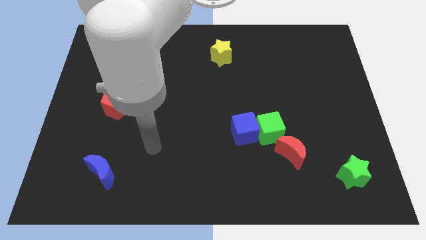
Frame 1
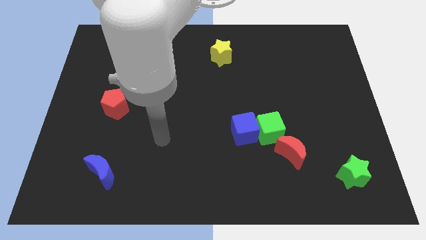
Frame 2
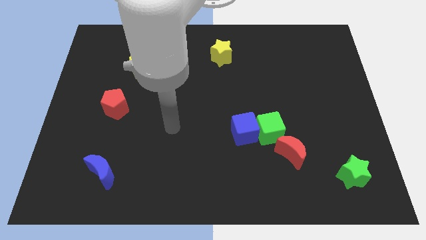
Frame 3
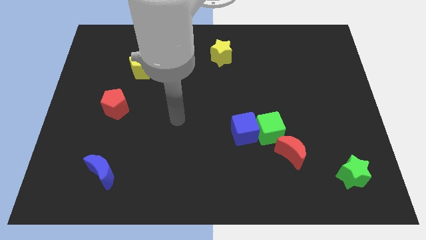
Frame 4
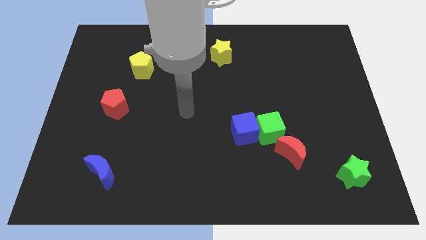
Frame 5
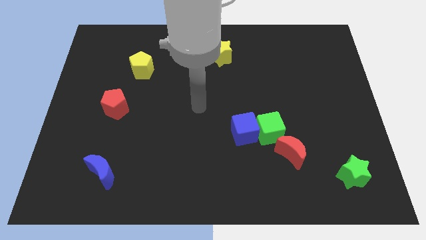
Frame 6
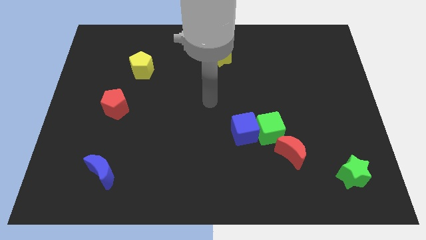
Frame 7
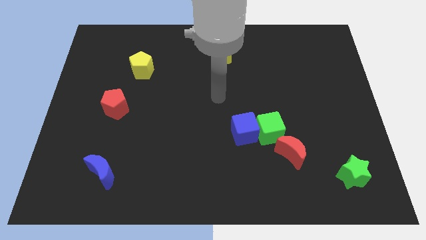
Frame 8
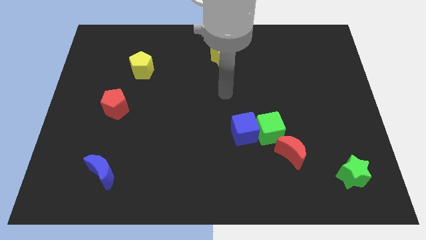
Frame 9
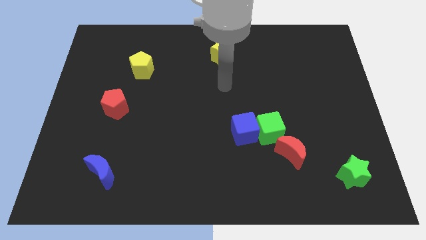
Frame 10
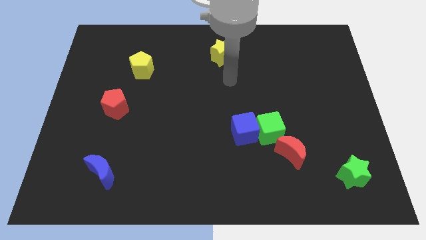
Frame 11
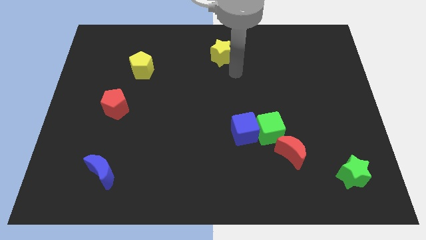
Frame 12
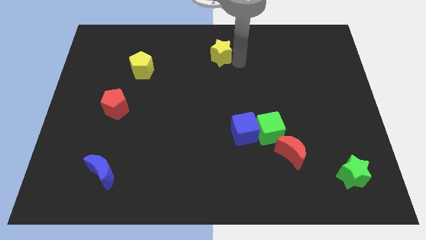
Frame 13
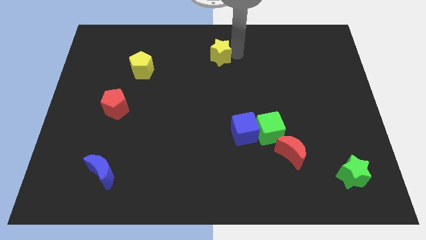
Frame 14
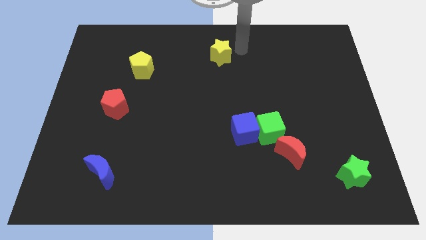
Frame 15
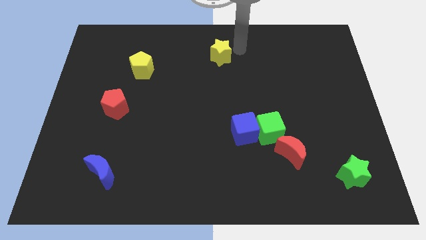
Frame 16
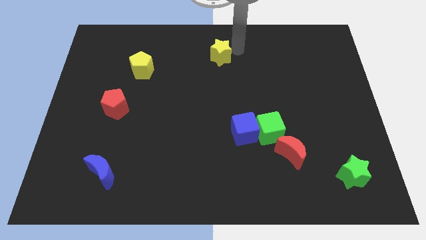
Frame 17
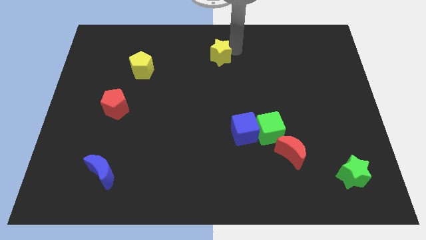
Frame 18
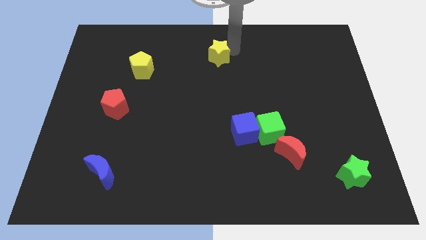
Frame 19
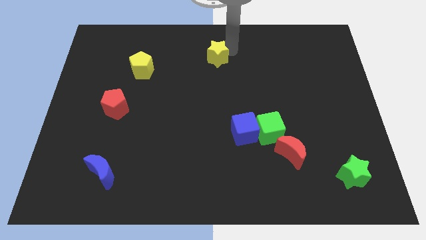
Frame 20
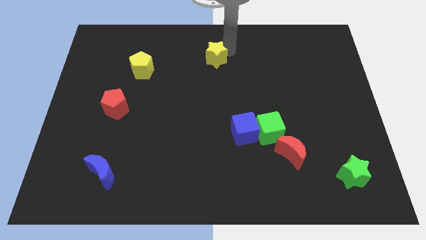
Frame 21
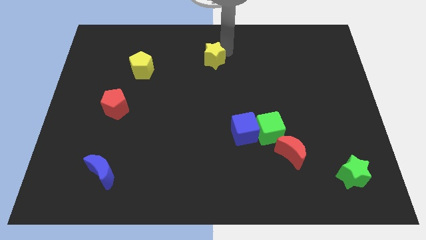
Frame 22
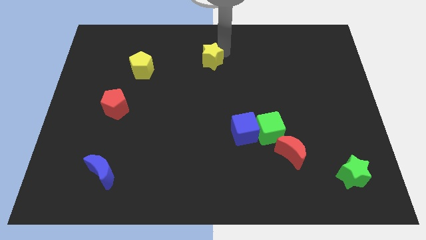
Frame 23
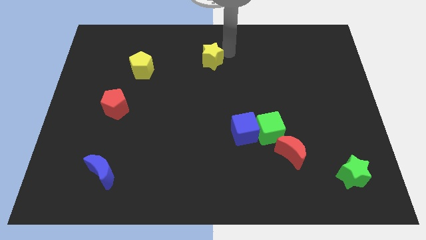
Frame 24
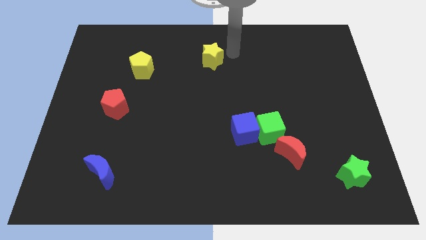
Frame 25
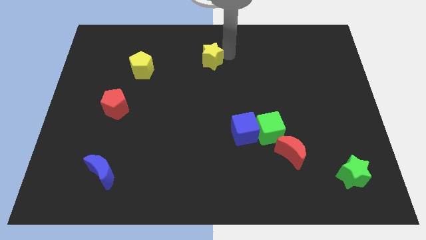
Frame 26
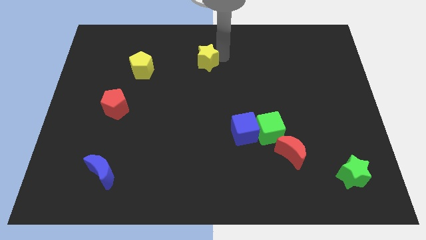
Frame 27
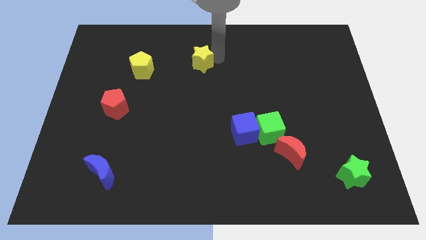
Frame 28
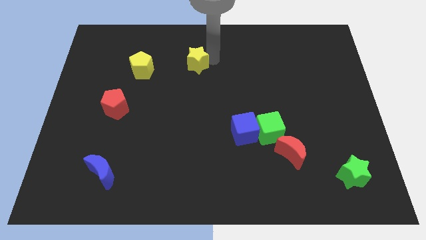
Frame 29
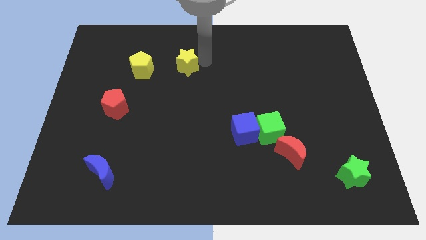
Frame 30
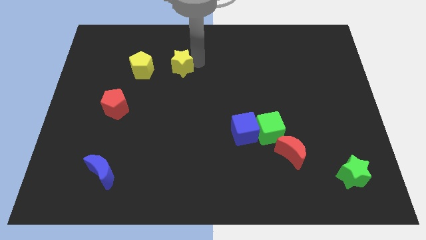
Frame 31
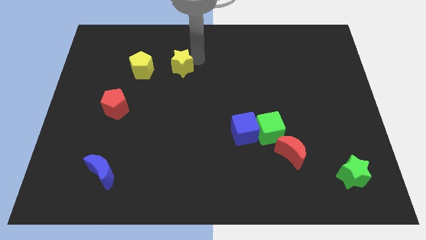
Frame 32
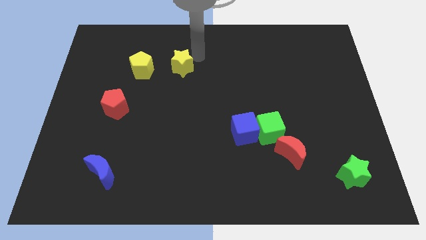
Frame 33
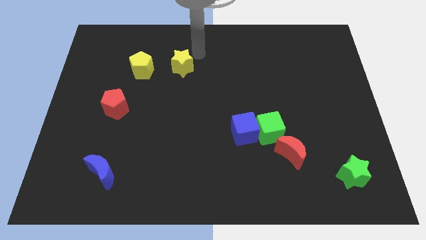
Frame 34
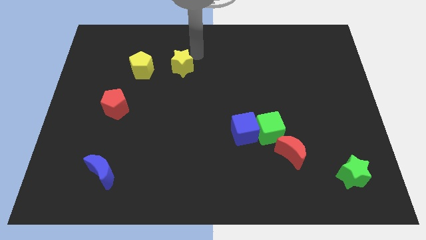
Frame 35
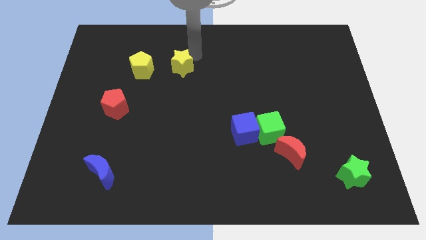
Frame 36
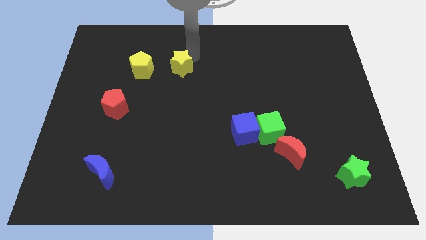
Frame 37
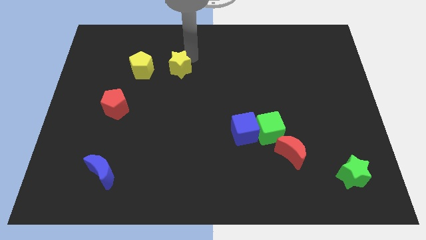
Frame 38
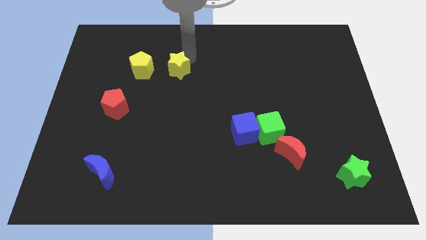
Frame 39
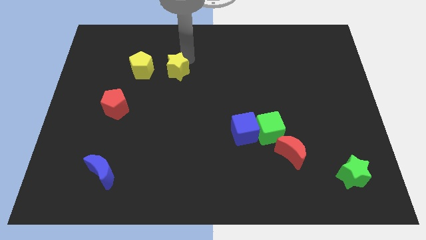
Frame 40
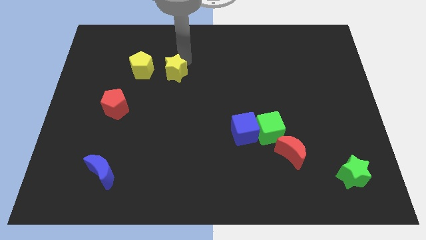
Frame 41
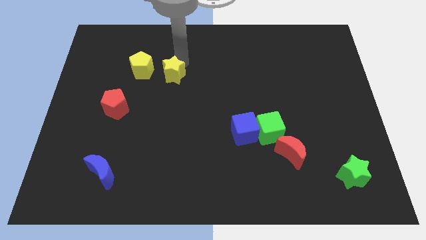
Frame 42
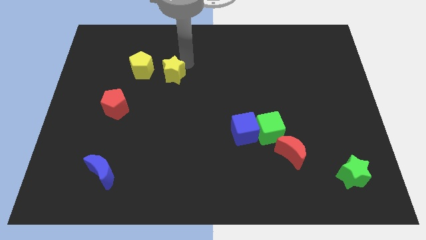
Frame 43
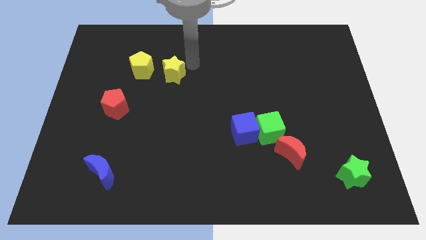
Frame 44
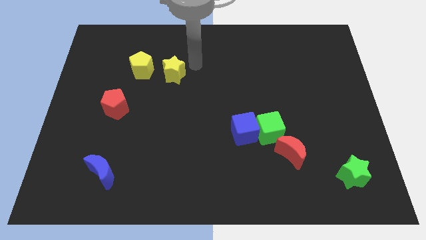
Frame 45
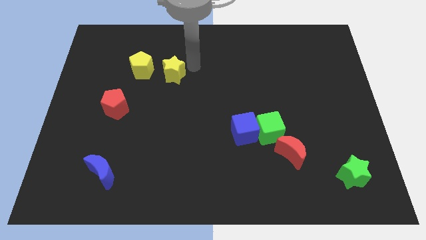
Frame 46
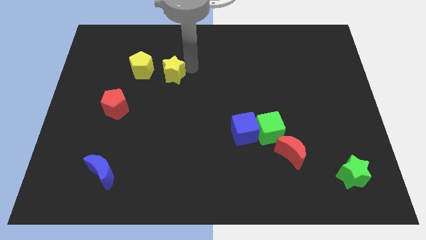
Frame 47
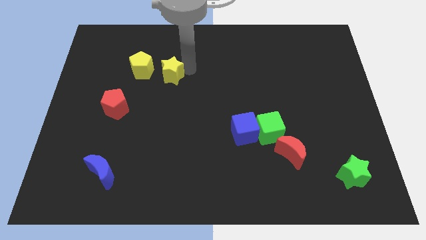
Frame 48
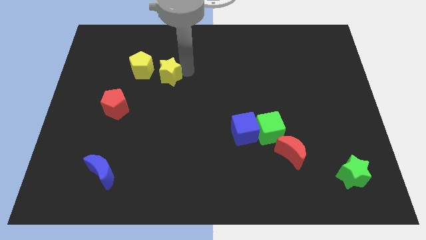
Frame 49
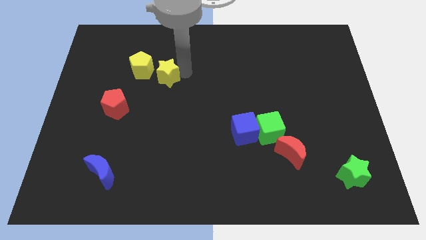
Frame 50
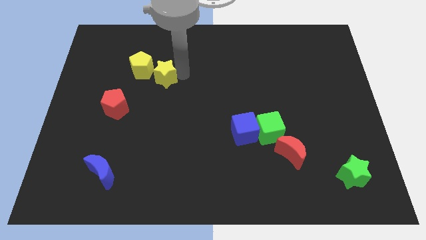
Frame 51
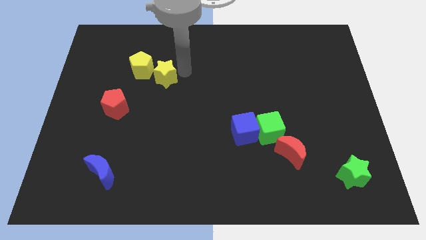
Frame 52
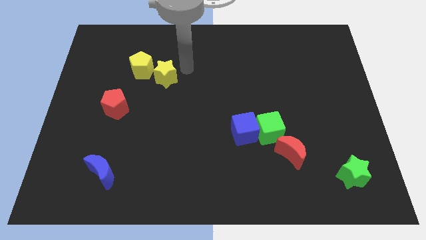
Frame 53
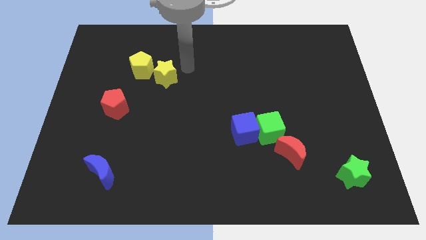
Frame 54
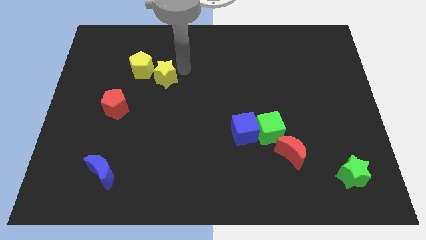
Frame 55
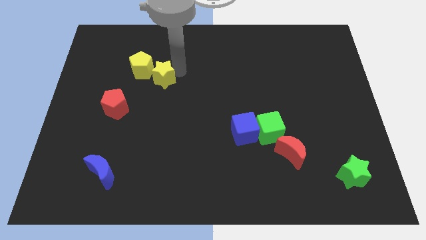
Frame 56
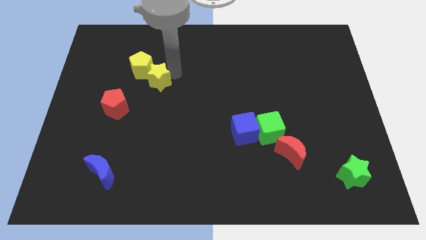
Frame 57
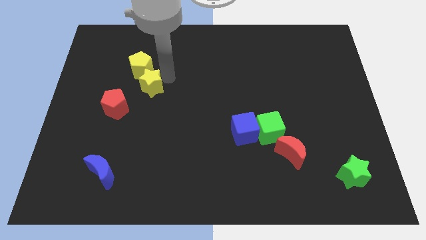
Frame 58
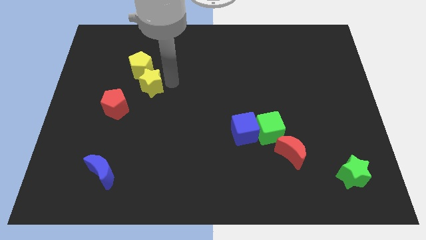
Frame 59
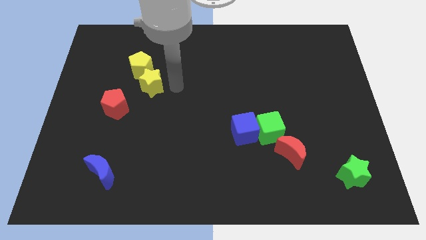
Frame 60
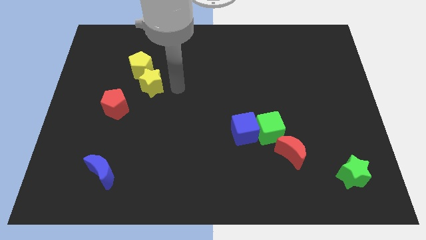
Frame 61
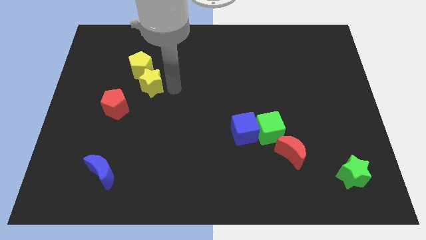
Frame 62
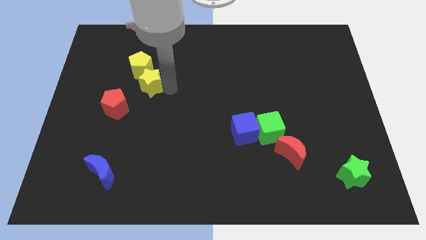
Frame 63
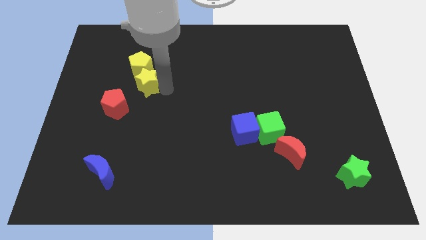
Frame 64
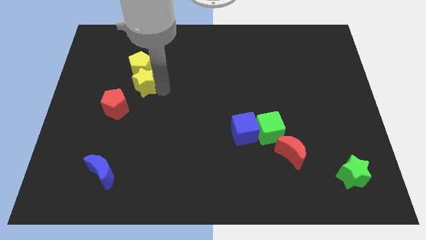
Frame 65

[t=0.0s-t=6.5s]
move the yellow star to the bottom left side of the yellow pentagon

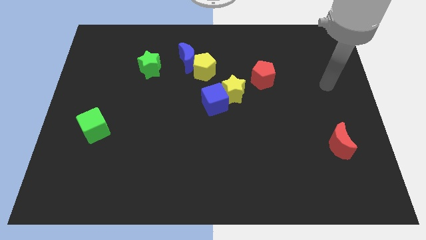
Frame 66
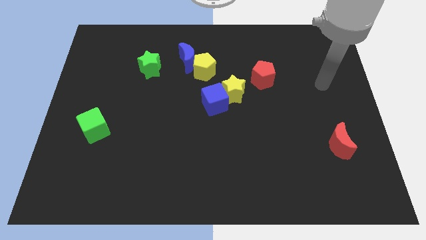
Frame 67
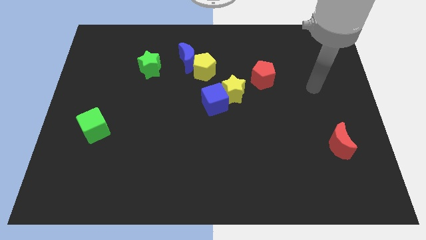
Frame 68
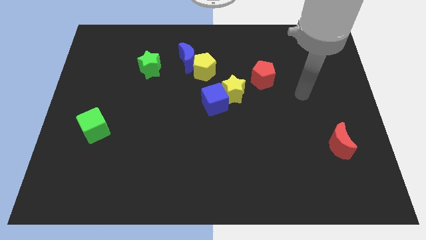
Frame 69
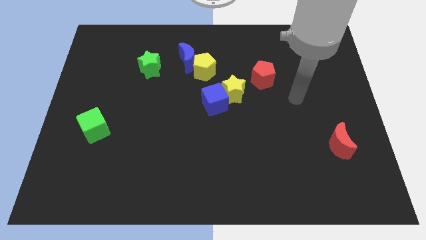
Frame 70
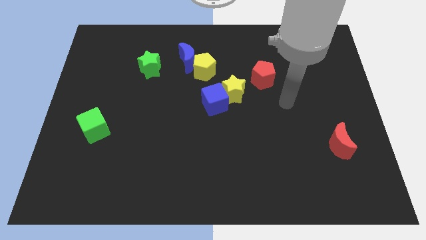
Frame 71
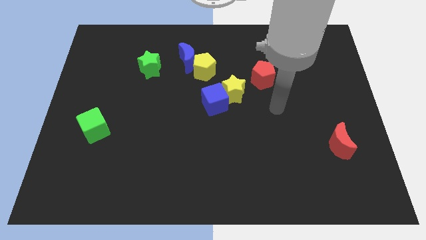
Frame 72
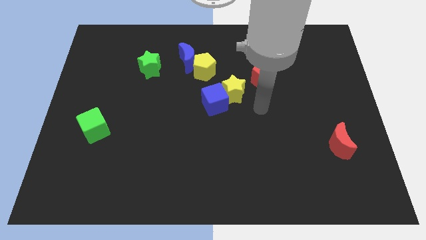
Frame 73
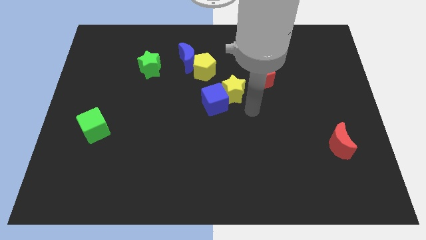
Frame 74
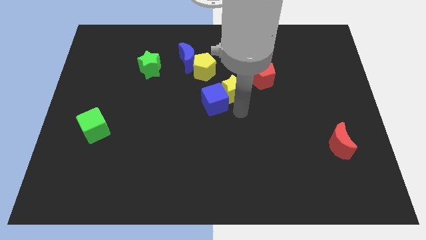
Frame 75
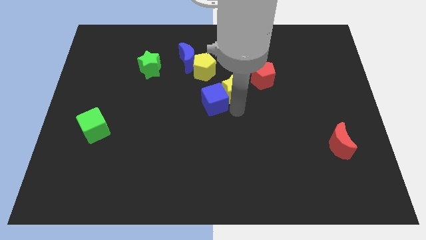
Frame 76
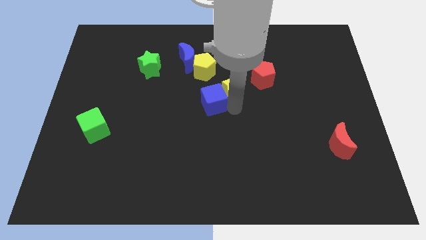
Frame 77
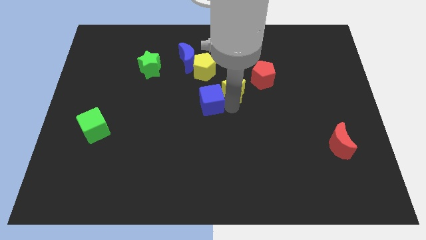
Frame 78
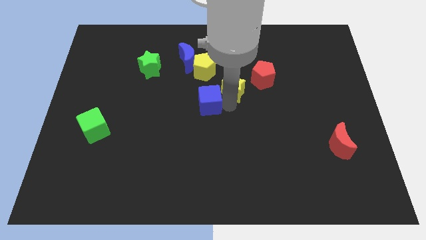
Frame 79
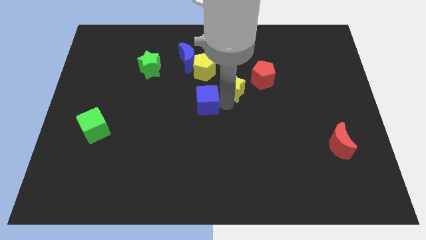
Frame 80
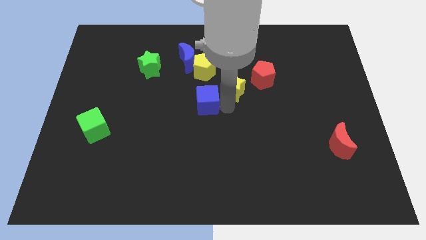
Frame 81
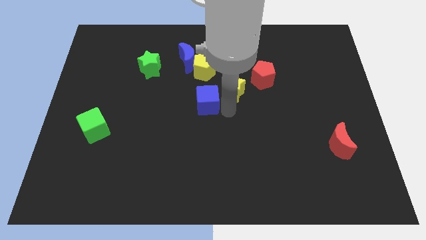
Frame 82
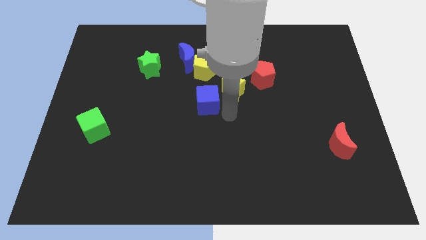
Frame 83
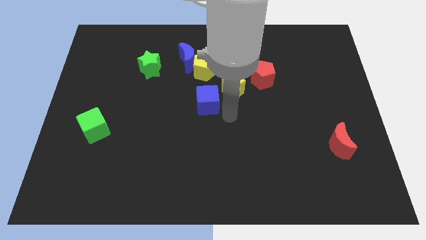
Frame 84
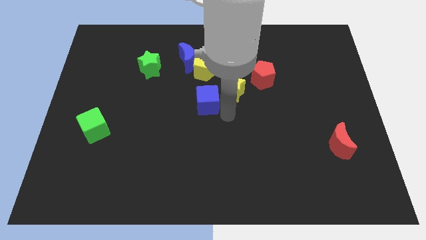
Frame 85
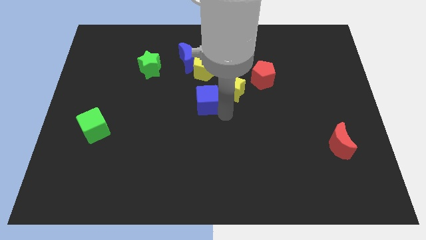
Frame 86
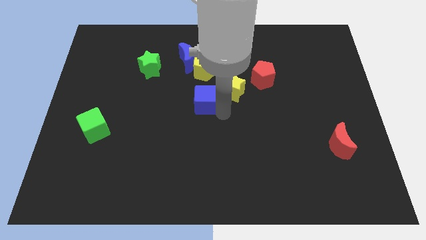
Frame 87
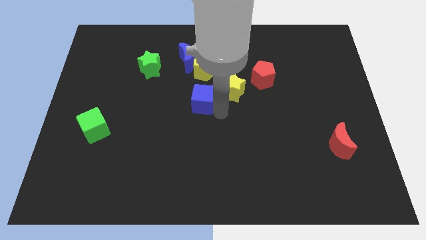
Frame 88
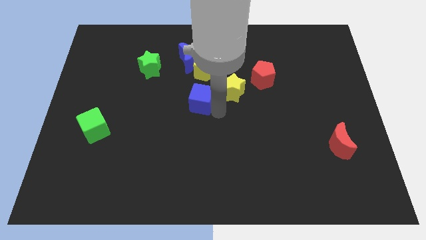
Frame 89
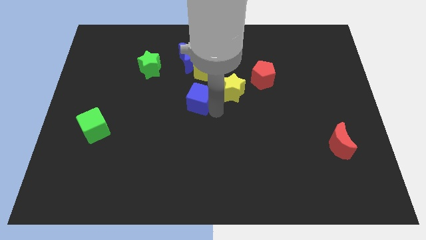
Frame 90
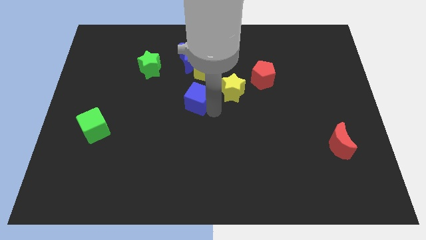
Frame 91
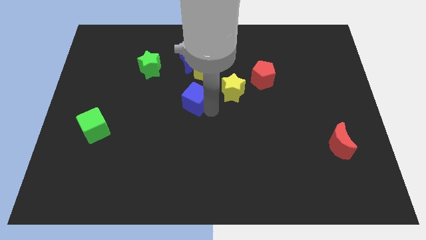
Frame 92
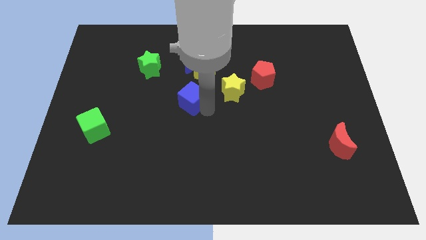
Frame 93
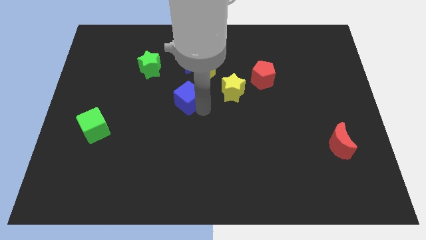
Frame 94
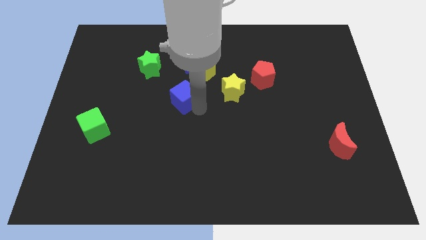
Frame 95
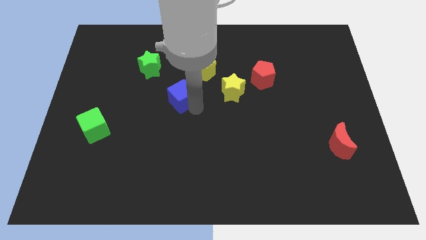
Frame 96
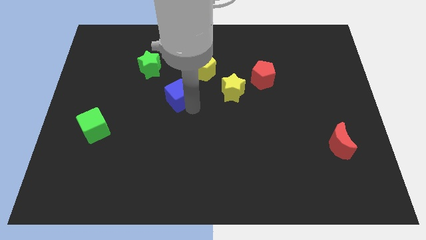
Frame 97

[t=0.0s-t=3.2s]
push the blue cube to the bottom right side of the green star
